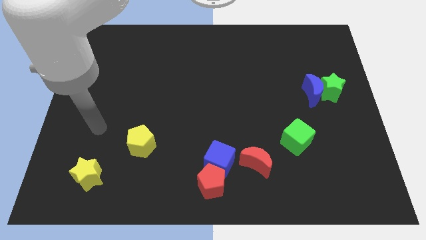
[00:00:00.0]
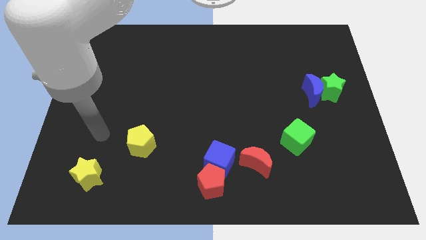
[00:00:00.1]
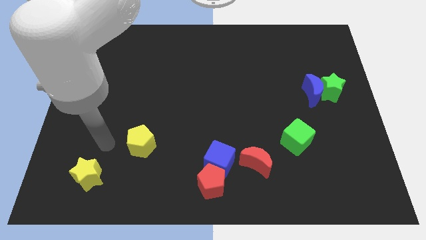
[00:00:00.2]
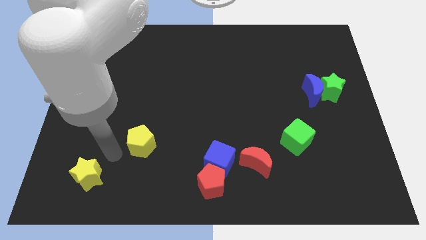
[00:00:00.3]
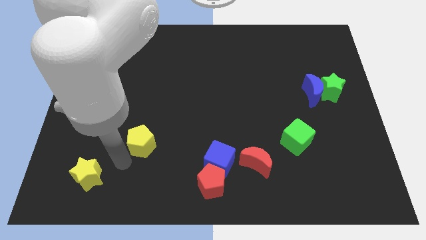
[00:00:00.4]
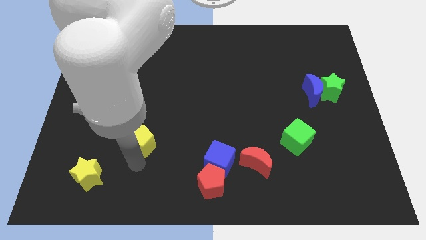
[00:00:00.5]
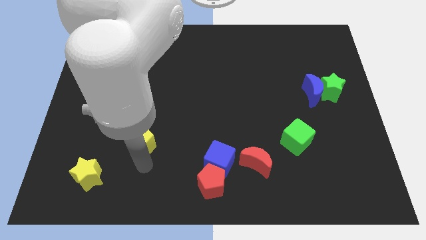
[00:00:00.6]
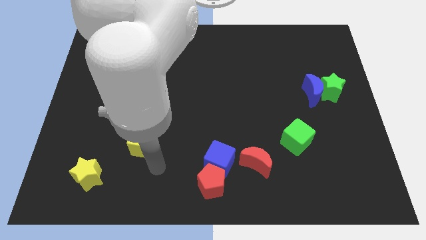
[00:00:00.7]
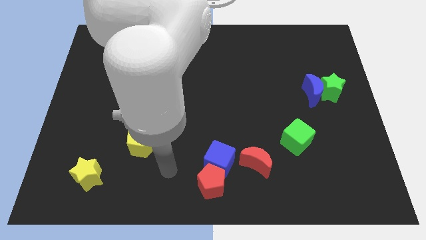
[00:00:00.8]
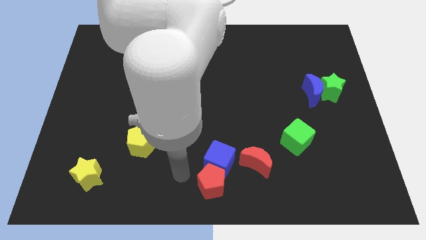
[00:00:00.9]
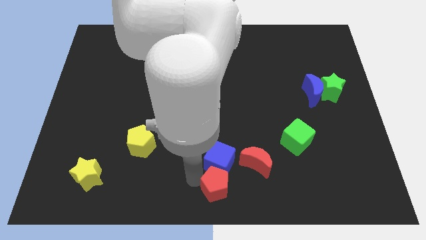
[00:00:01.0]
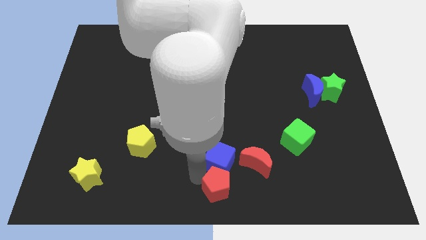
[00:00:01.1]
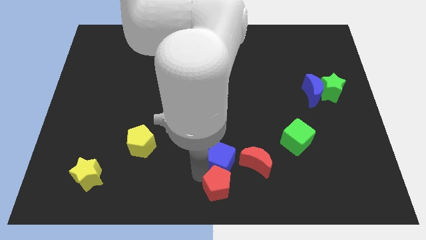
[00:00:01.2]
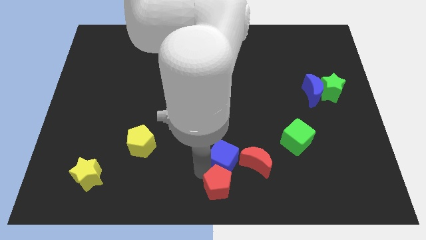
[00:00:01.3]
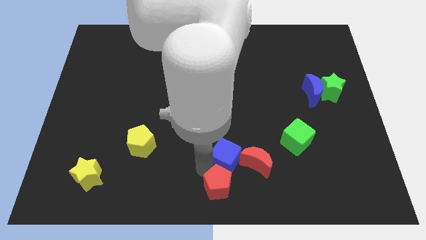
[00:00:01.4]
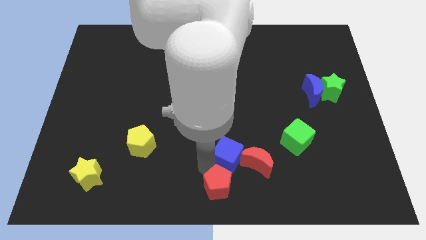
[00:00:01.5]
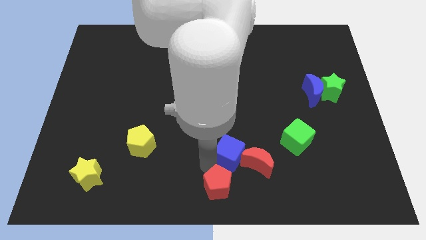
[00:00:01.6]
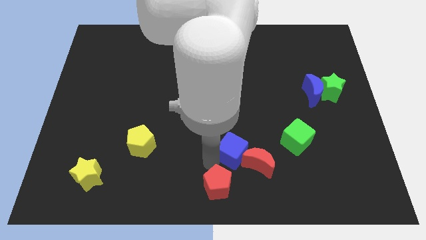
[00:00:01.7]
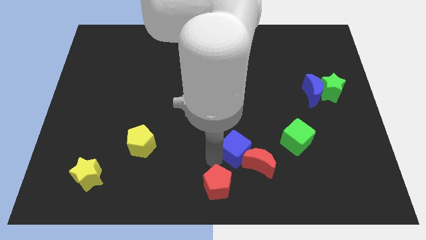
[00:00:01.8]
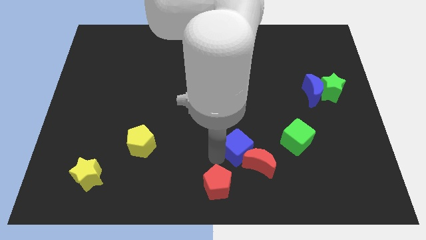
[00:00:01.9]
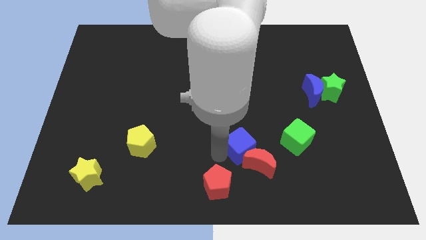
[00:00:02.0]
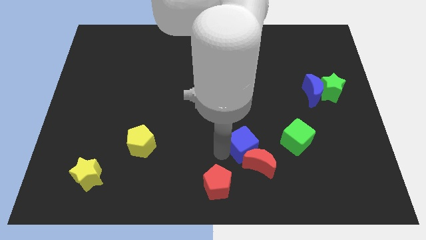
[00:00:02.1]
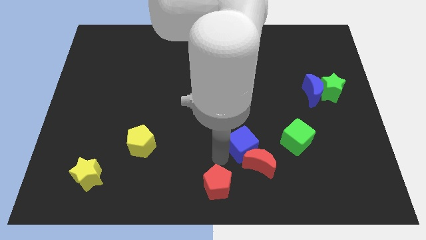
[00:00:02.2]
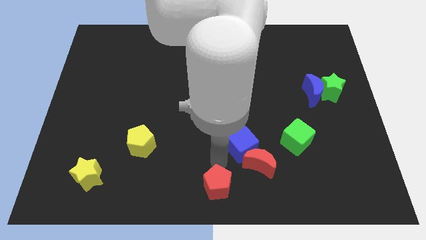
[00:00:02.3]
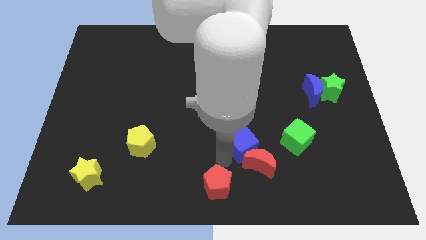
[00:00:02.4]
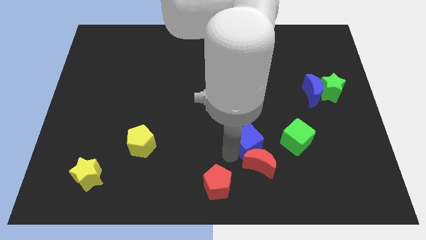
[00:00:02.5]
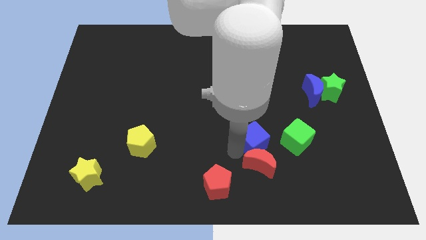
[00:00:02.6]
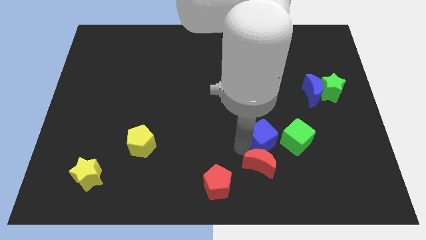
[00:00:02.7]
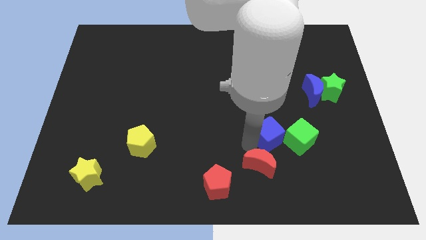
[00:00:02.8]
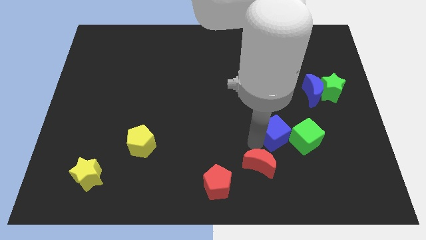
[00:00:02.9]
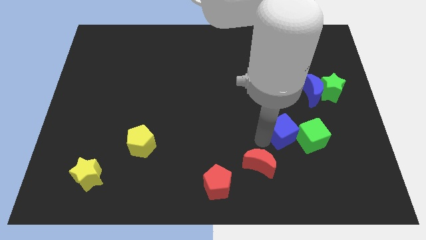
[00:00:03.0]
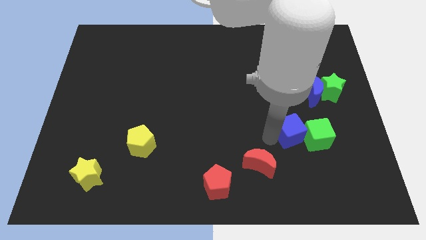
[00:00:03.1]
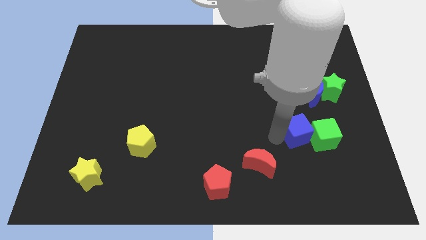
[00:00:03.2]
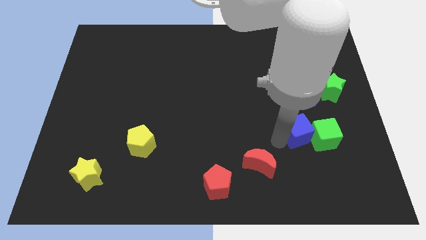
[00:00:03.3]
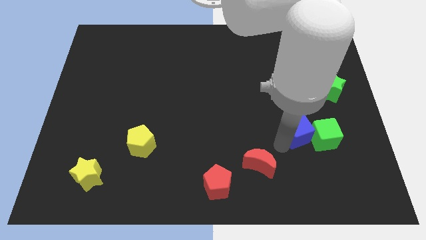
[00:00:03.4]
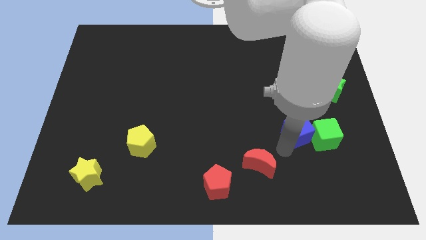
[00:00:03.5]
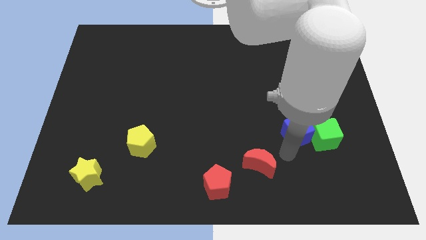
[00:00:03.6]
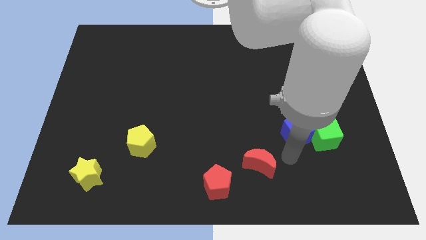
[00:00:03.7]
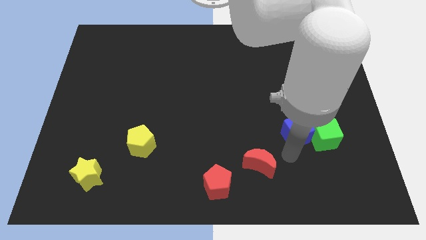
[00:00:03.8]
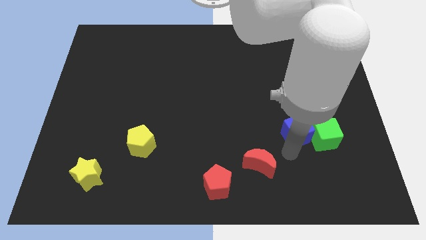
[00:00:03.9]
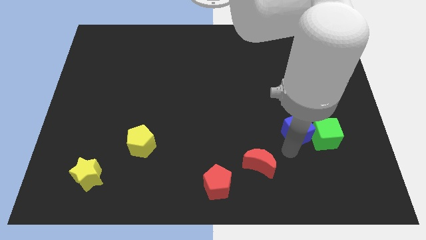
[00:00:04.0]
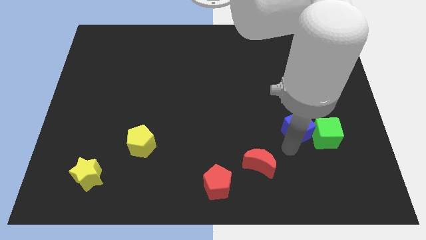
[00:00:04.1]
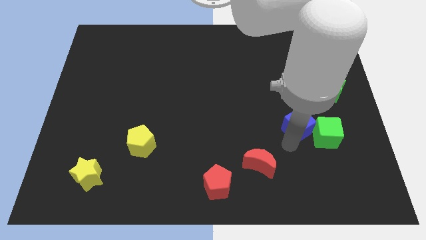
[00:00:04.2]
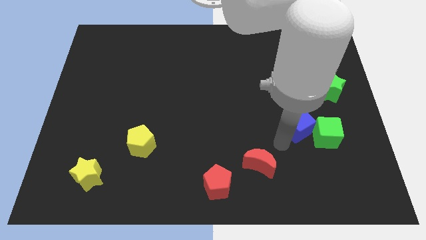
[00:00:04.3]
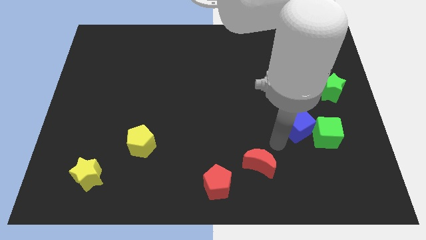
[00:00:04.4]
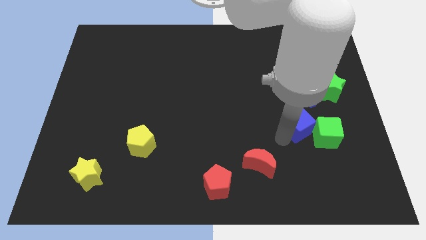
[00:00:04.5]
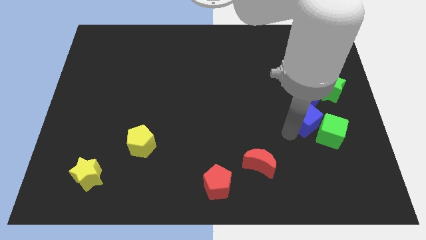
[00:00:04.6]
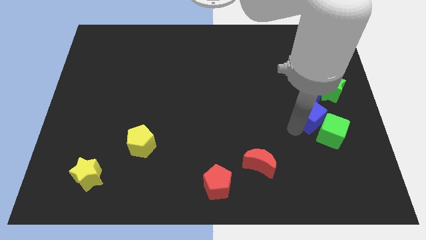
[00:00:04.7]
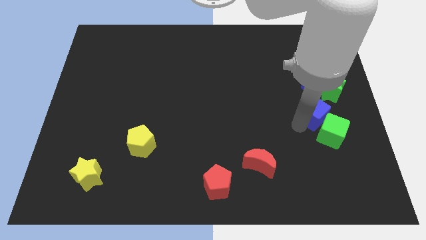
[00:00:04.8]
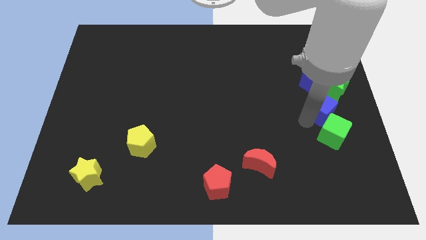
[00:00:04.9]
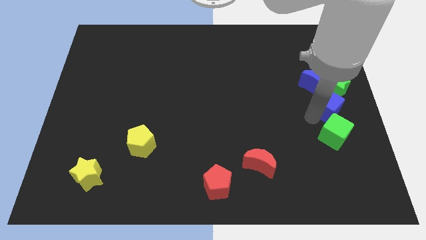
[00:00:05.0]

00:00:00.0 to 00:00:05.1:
put the blue cube towards the green star

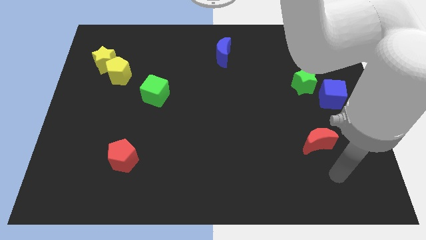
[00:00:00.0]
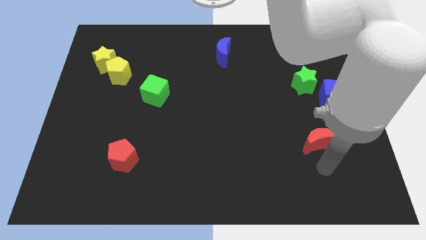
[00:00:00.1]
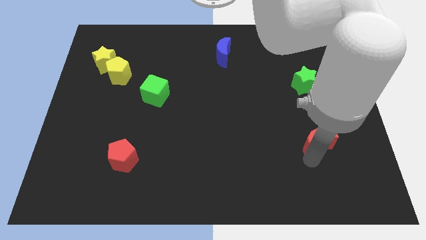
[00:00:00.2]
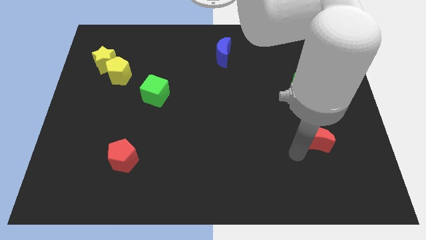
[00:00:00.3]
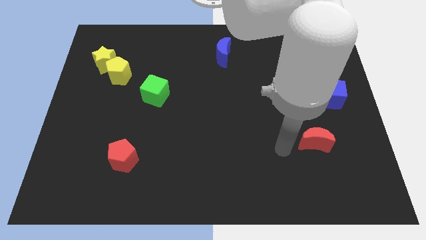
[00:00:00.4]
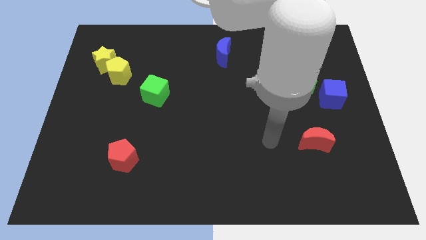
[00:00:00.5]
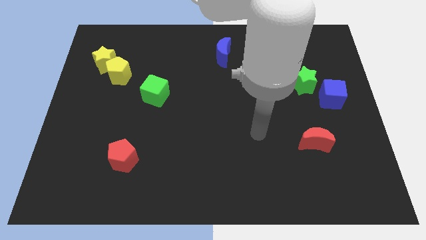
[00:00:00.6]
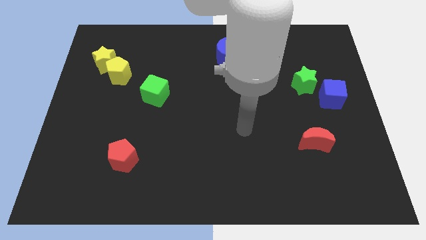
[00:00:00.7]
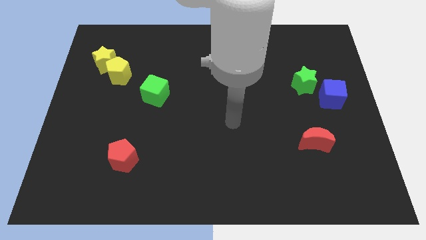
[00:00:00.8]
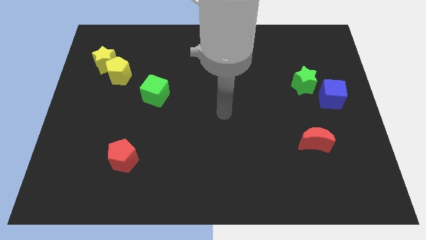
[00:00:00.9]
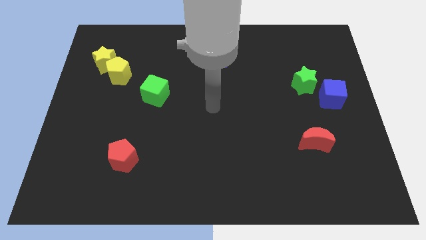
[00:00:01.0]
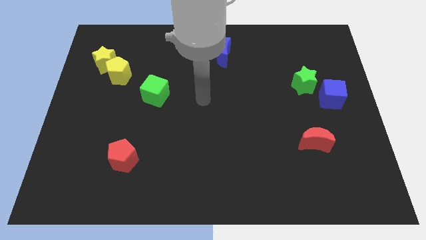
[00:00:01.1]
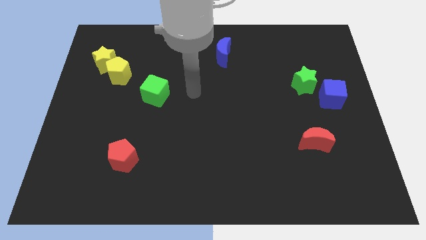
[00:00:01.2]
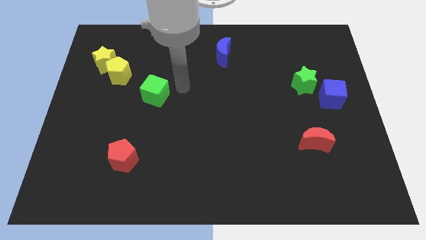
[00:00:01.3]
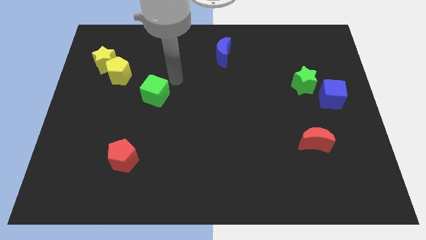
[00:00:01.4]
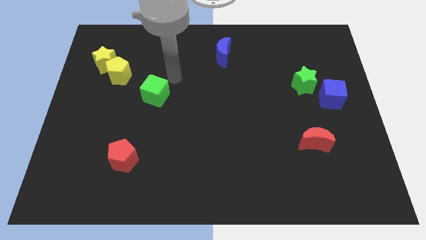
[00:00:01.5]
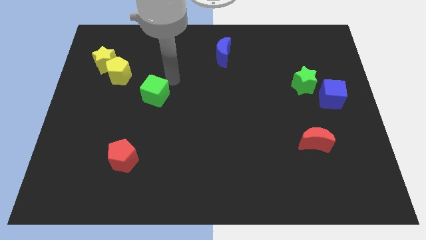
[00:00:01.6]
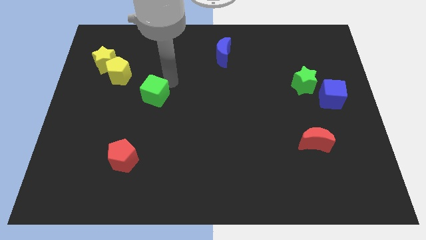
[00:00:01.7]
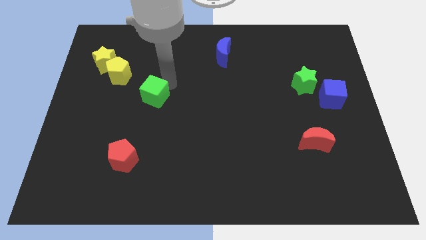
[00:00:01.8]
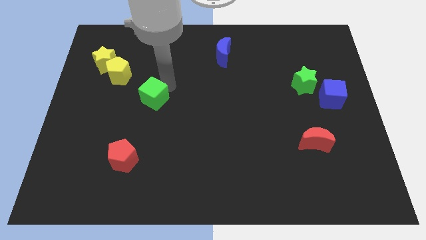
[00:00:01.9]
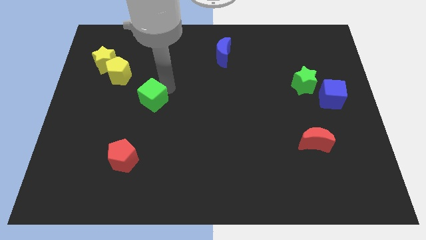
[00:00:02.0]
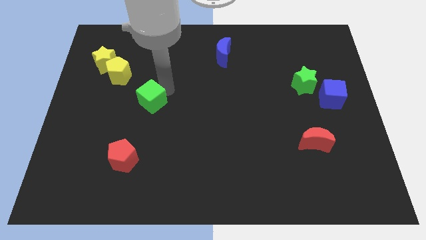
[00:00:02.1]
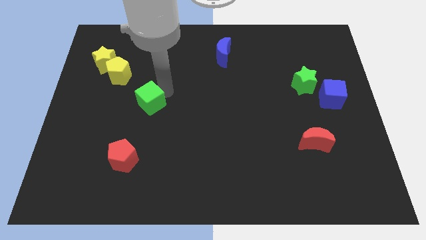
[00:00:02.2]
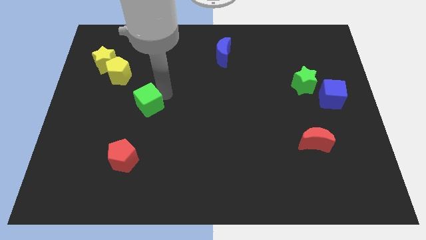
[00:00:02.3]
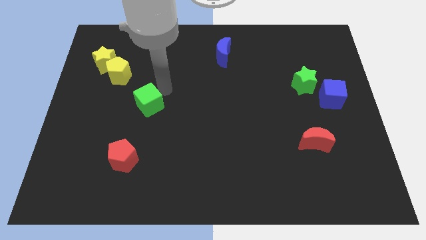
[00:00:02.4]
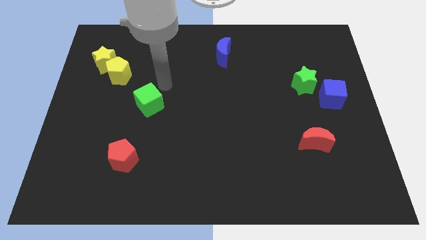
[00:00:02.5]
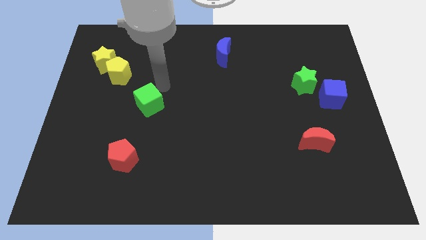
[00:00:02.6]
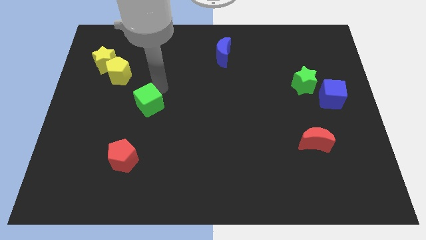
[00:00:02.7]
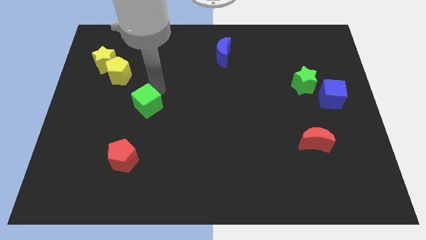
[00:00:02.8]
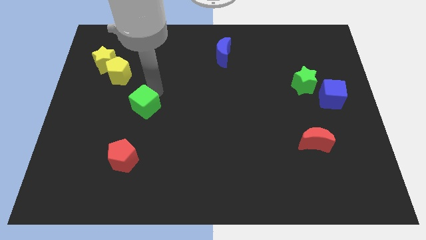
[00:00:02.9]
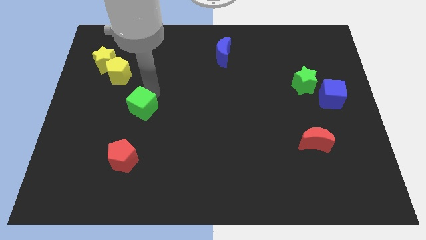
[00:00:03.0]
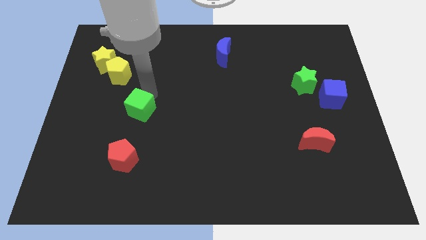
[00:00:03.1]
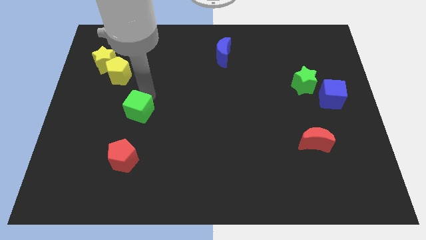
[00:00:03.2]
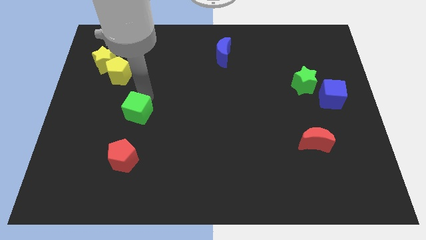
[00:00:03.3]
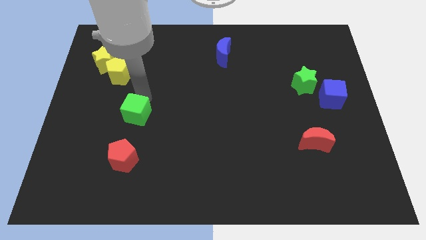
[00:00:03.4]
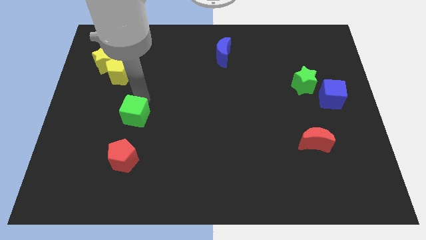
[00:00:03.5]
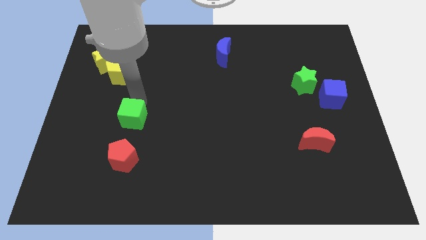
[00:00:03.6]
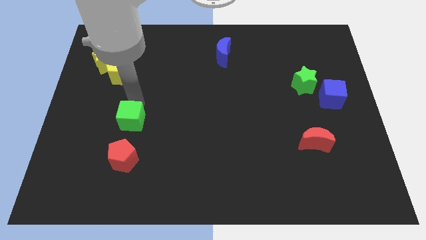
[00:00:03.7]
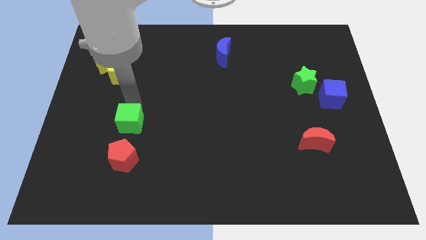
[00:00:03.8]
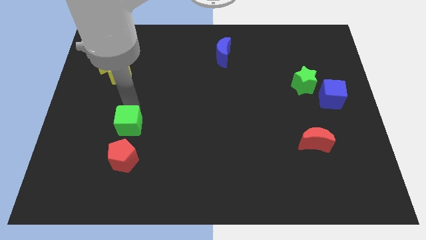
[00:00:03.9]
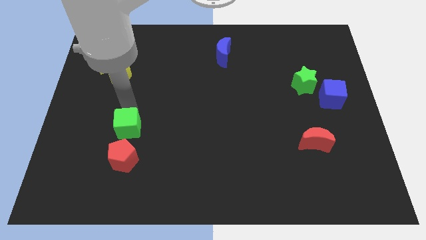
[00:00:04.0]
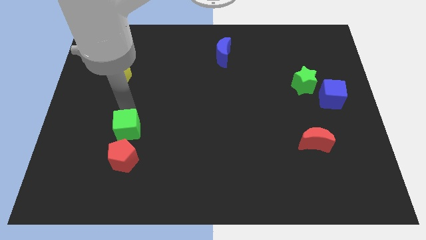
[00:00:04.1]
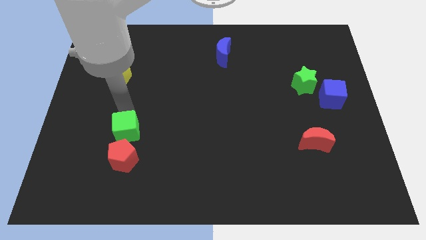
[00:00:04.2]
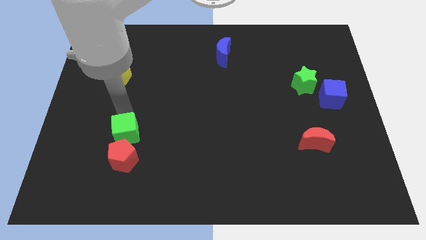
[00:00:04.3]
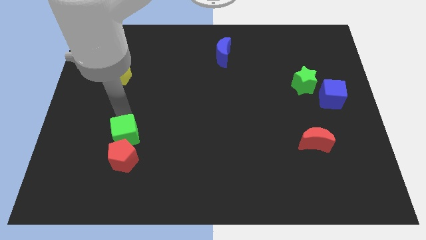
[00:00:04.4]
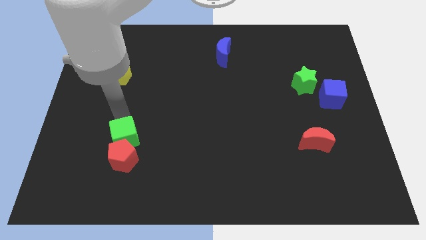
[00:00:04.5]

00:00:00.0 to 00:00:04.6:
put the green cube next to the red pentagon
